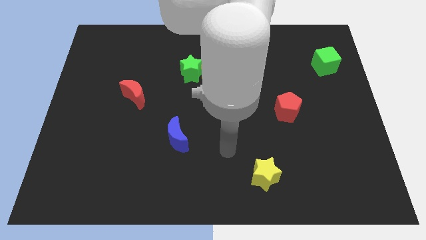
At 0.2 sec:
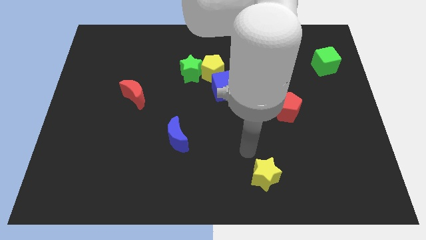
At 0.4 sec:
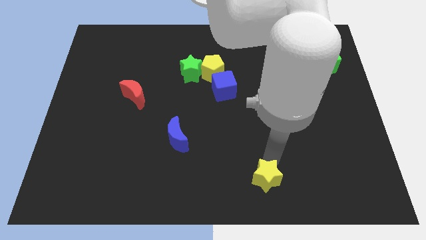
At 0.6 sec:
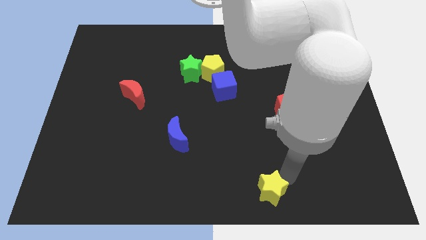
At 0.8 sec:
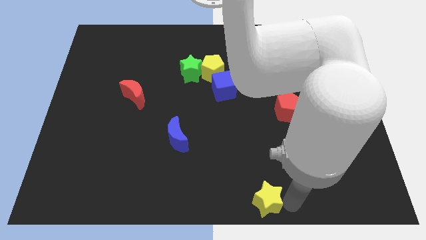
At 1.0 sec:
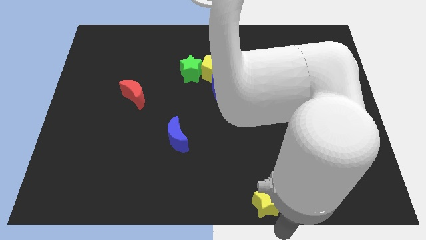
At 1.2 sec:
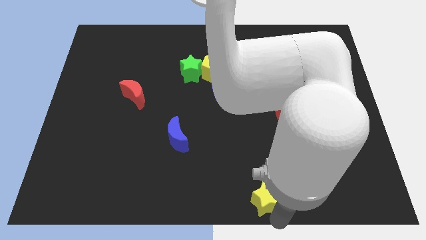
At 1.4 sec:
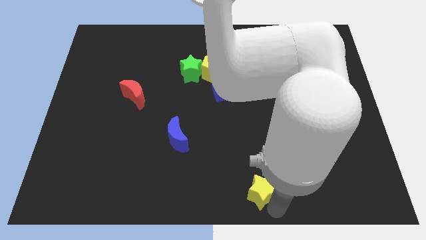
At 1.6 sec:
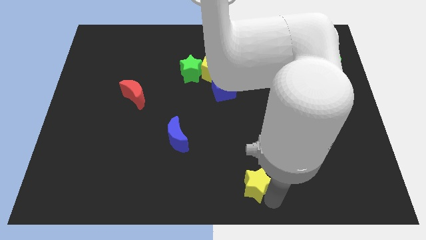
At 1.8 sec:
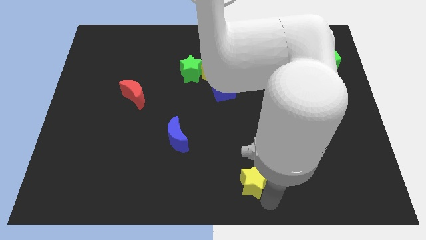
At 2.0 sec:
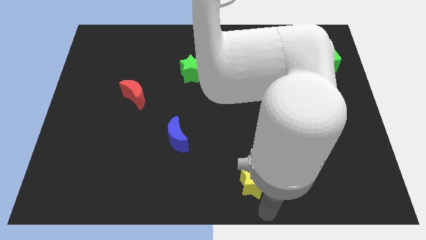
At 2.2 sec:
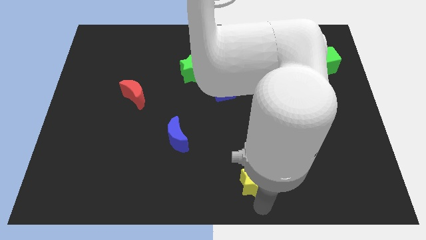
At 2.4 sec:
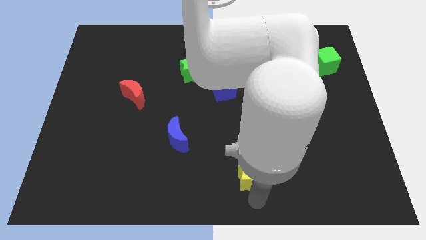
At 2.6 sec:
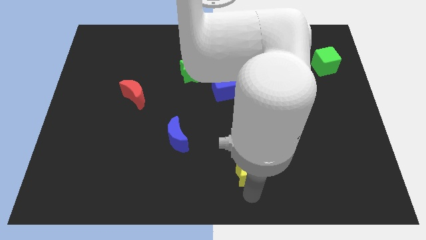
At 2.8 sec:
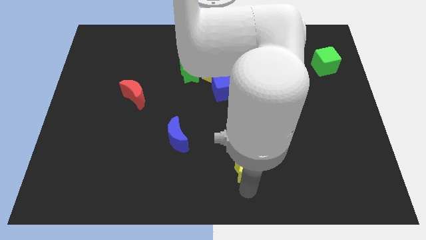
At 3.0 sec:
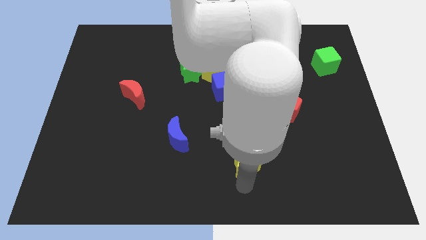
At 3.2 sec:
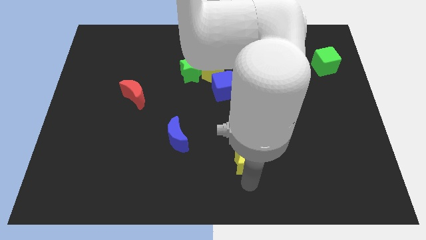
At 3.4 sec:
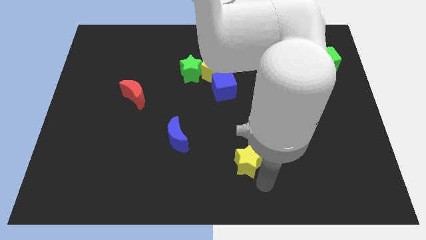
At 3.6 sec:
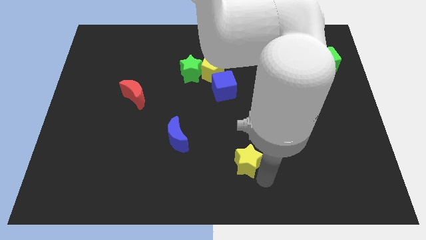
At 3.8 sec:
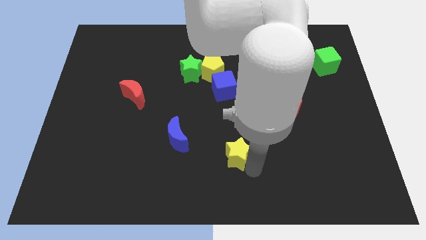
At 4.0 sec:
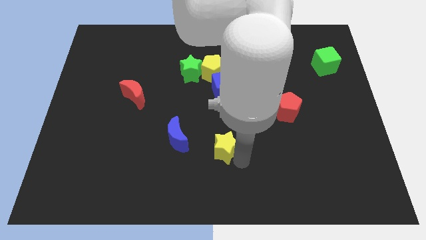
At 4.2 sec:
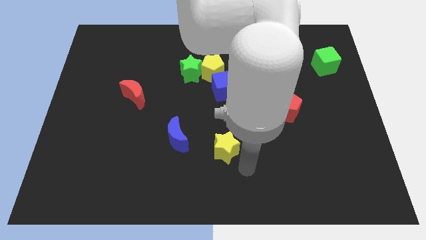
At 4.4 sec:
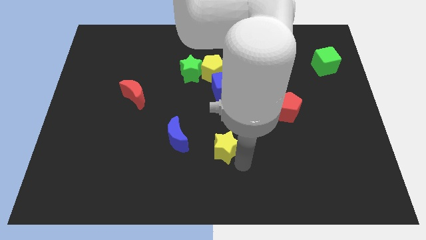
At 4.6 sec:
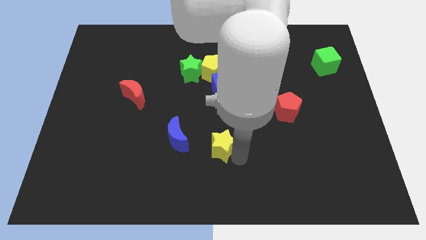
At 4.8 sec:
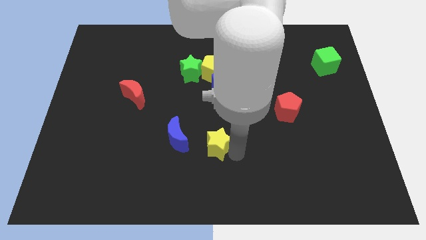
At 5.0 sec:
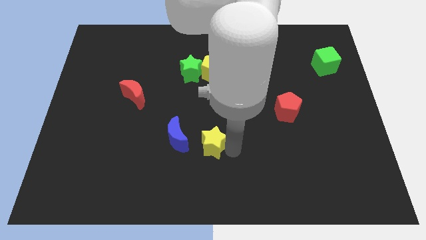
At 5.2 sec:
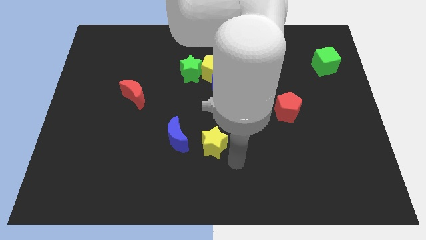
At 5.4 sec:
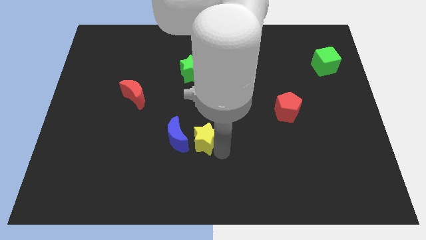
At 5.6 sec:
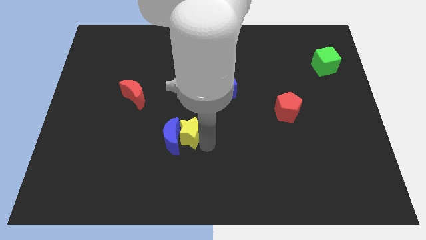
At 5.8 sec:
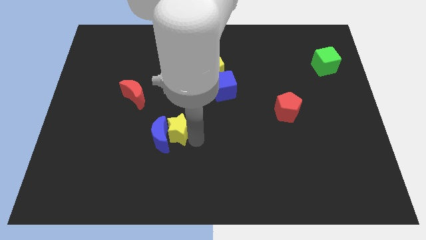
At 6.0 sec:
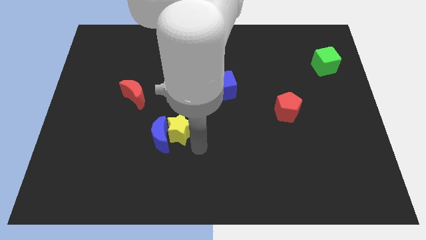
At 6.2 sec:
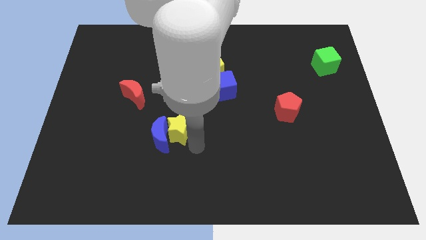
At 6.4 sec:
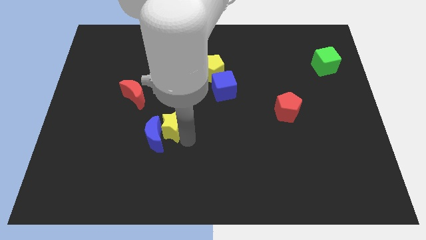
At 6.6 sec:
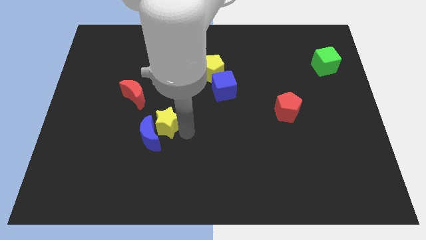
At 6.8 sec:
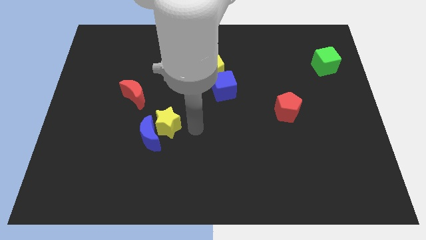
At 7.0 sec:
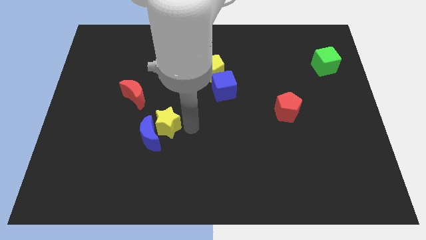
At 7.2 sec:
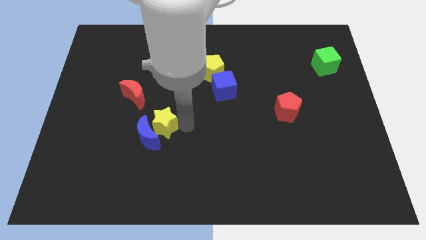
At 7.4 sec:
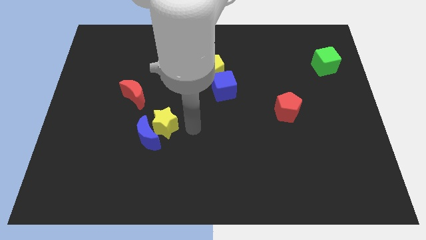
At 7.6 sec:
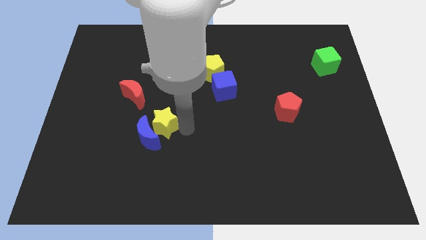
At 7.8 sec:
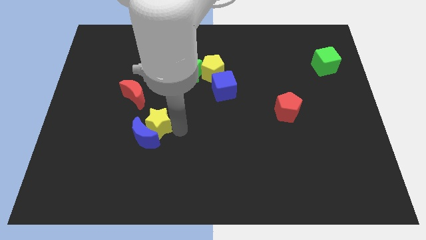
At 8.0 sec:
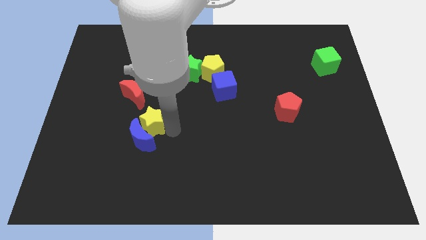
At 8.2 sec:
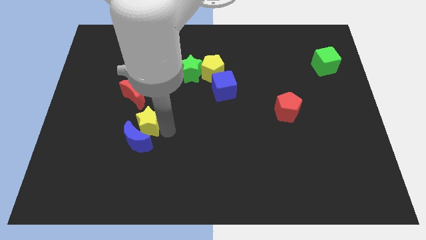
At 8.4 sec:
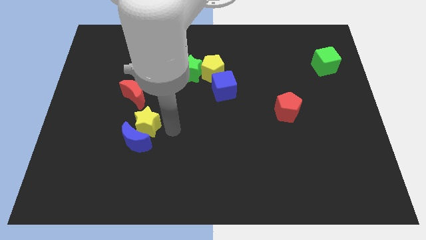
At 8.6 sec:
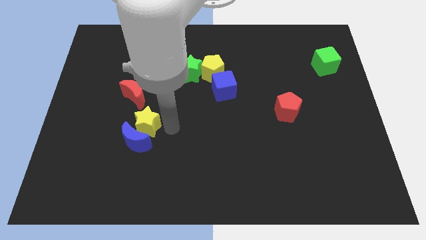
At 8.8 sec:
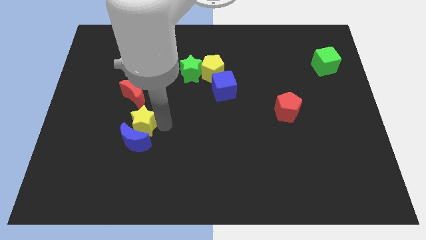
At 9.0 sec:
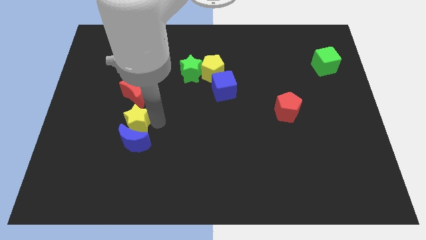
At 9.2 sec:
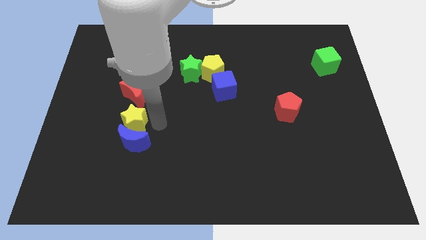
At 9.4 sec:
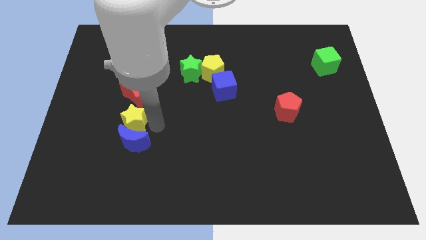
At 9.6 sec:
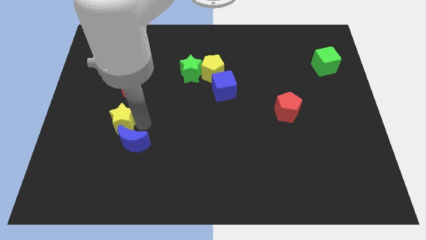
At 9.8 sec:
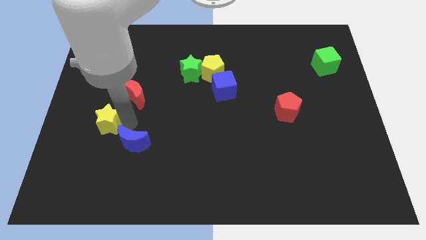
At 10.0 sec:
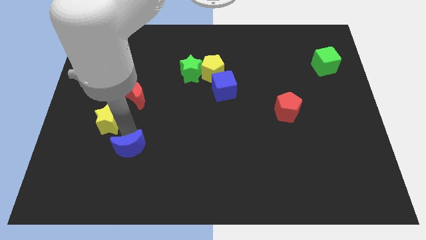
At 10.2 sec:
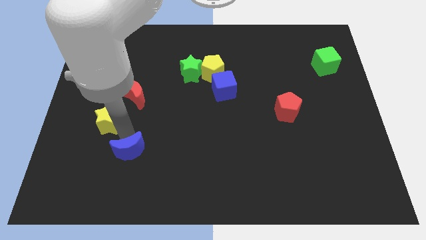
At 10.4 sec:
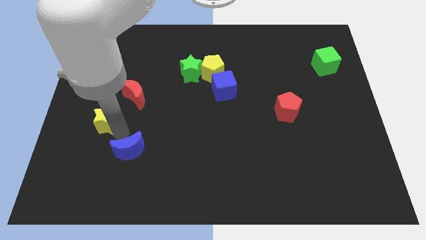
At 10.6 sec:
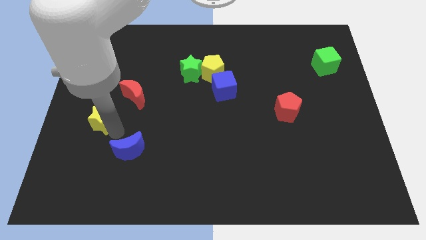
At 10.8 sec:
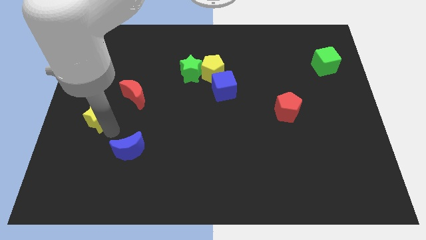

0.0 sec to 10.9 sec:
put the yellow star to the center left
